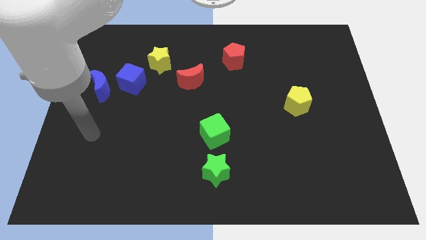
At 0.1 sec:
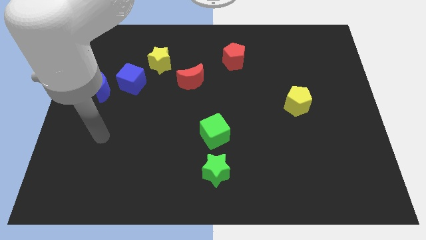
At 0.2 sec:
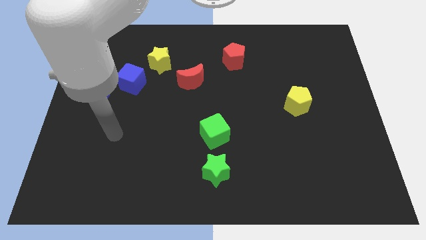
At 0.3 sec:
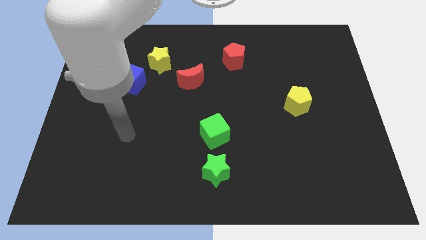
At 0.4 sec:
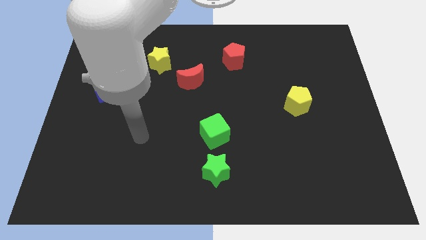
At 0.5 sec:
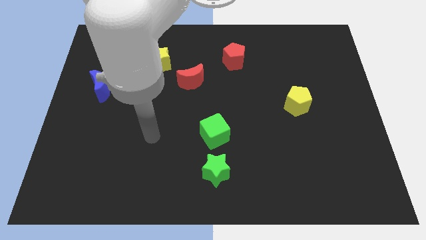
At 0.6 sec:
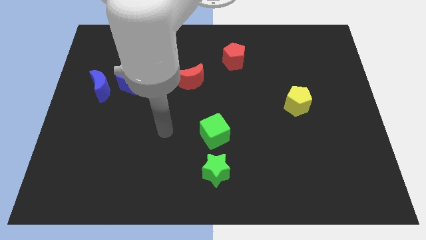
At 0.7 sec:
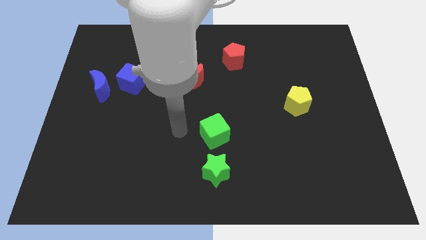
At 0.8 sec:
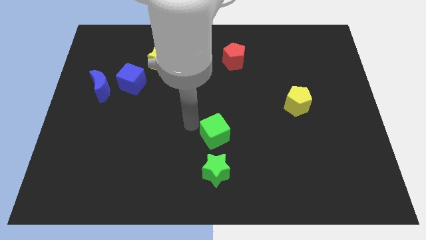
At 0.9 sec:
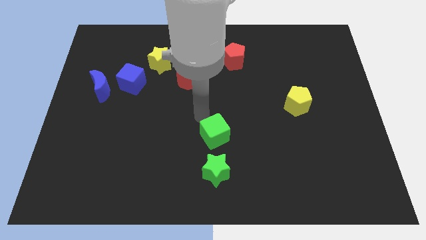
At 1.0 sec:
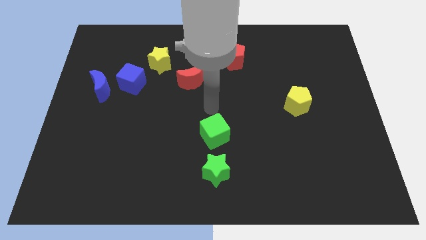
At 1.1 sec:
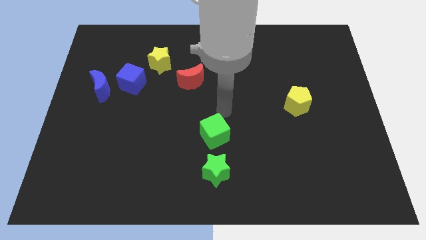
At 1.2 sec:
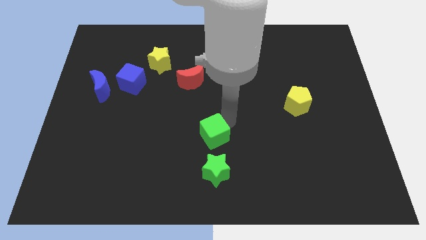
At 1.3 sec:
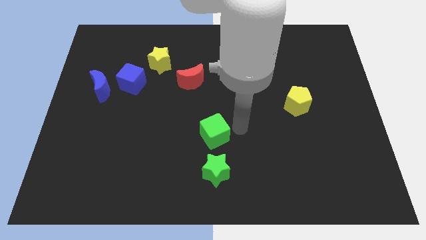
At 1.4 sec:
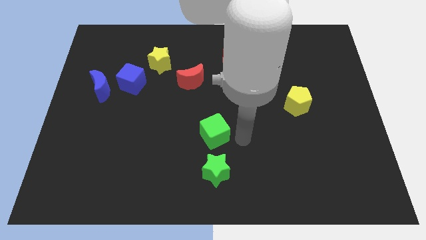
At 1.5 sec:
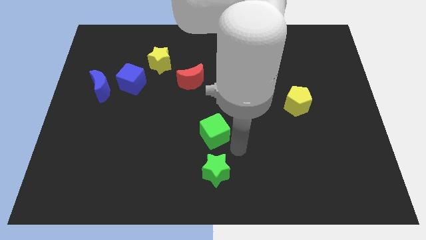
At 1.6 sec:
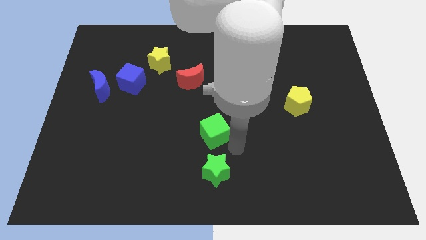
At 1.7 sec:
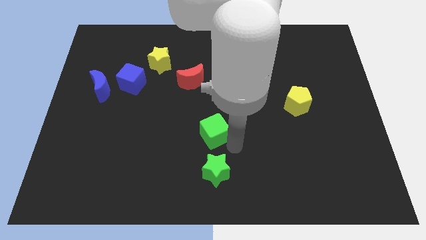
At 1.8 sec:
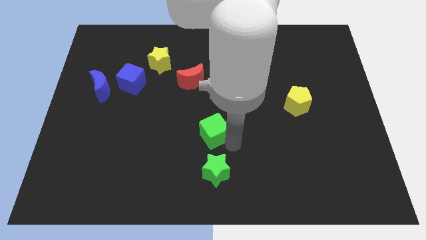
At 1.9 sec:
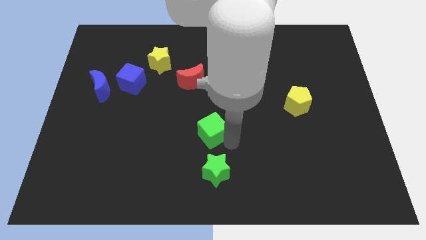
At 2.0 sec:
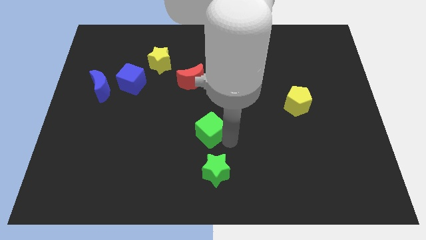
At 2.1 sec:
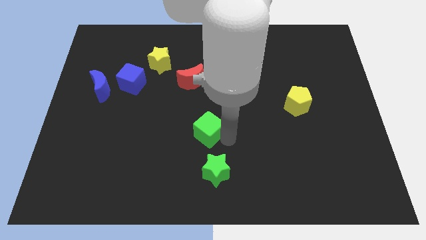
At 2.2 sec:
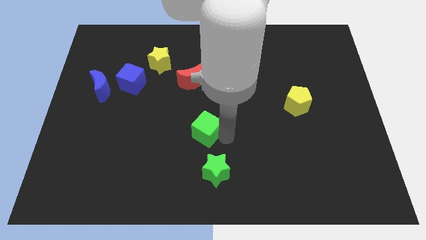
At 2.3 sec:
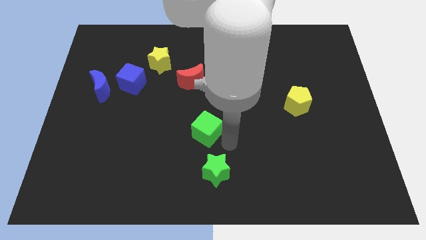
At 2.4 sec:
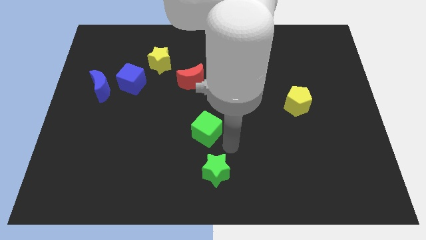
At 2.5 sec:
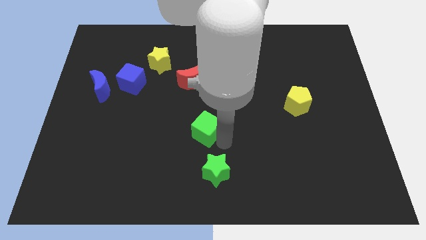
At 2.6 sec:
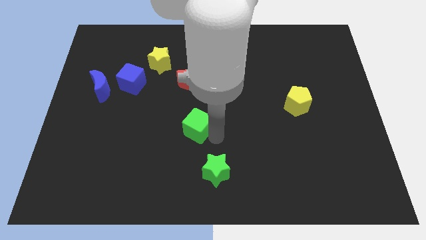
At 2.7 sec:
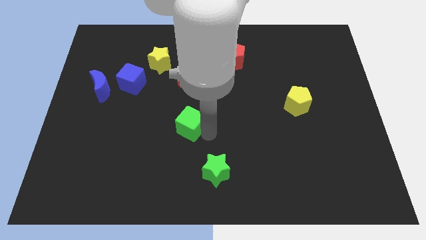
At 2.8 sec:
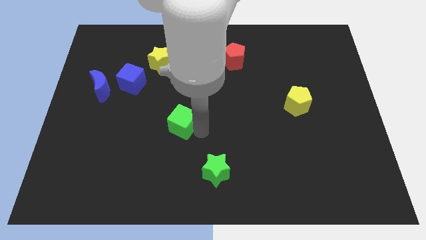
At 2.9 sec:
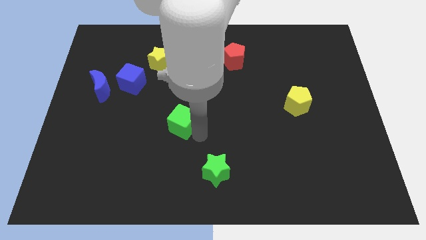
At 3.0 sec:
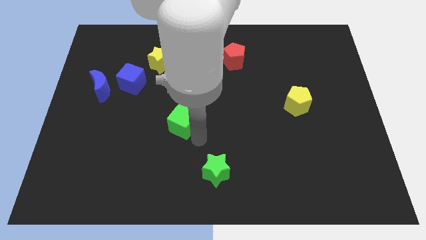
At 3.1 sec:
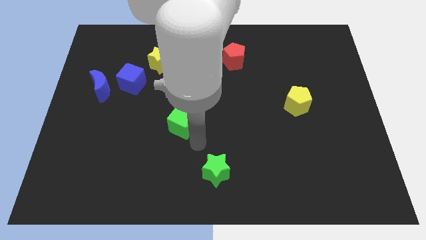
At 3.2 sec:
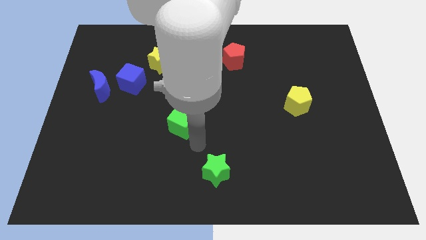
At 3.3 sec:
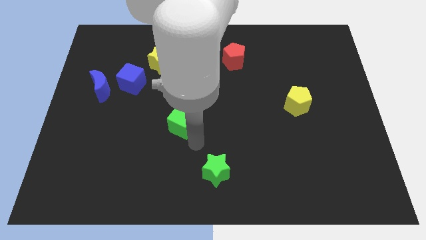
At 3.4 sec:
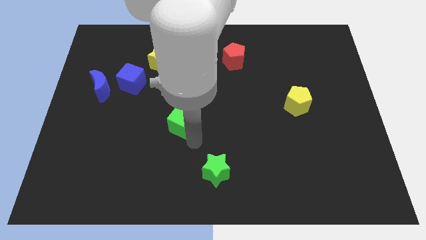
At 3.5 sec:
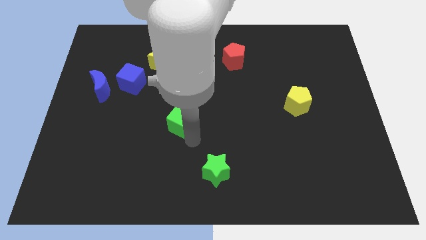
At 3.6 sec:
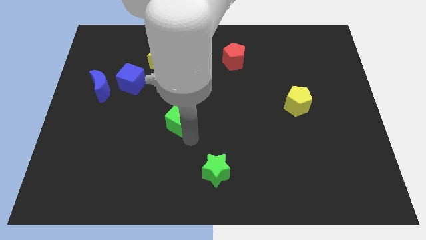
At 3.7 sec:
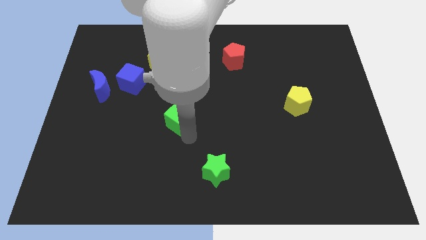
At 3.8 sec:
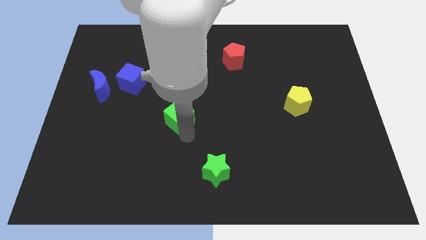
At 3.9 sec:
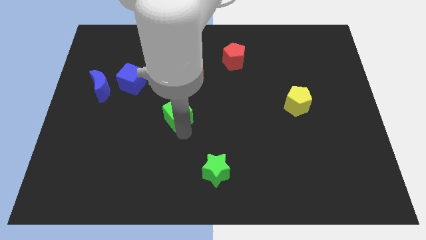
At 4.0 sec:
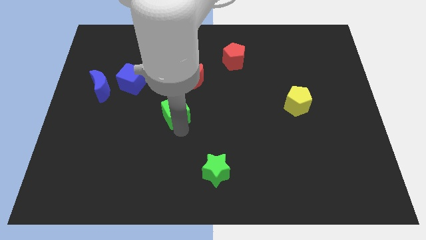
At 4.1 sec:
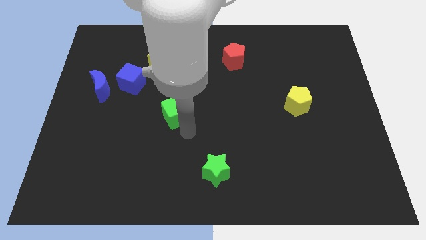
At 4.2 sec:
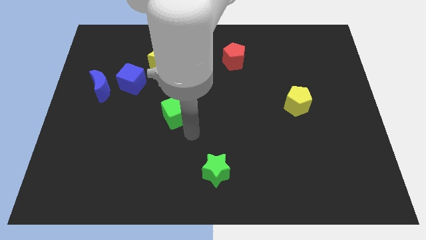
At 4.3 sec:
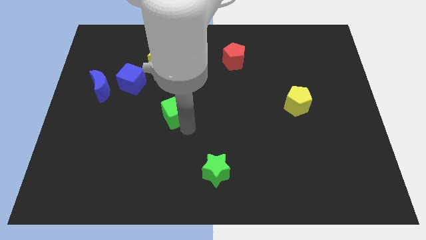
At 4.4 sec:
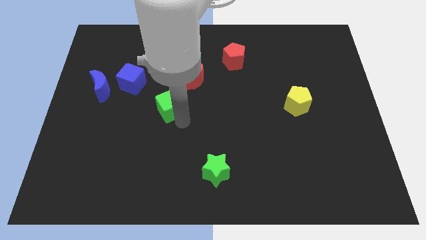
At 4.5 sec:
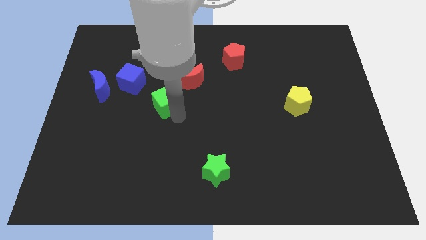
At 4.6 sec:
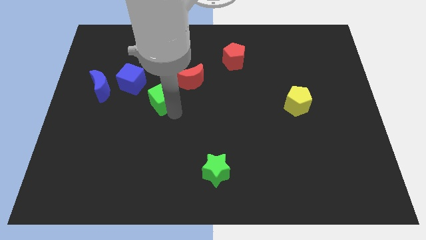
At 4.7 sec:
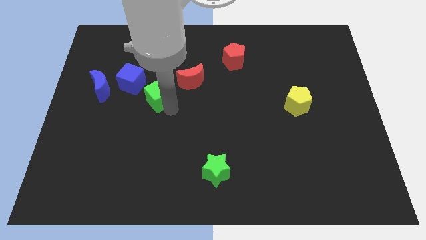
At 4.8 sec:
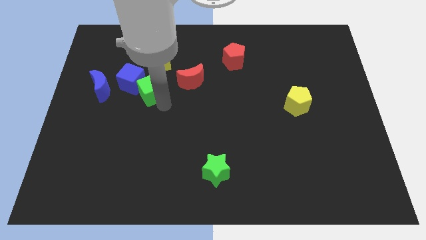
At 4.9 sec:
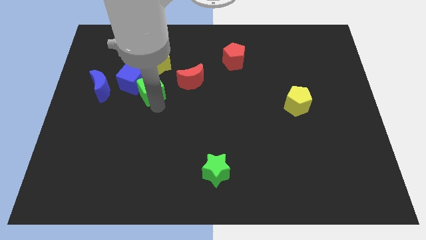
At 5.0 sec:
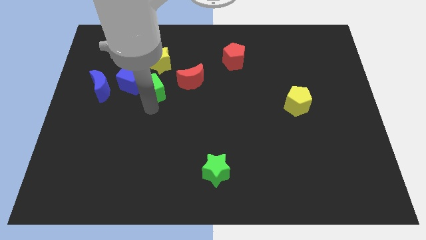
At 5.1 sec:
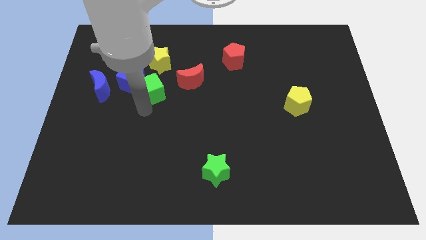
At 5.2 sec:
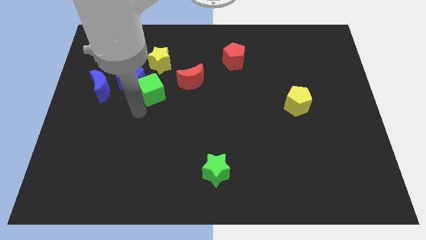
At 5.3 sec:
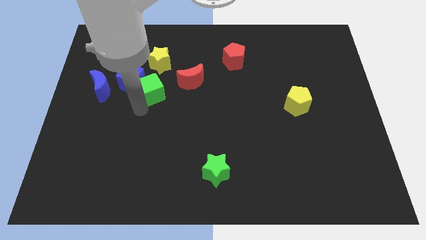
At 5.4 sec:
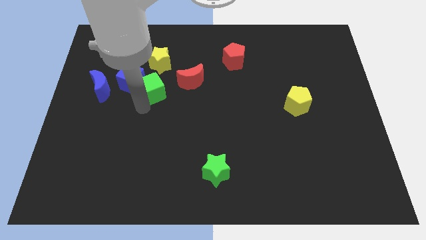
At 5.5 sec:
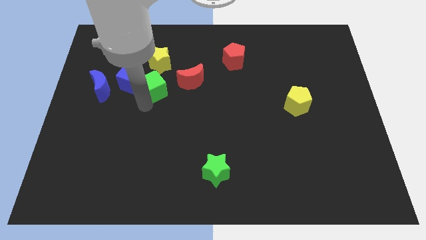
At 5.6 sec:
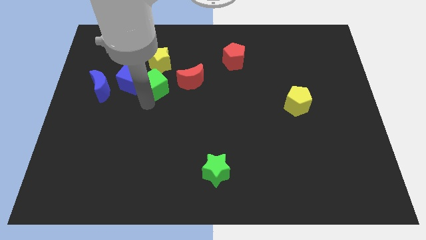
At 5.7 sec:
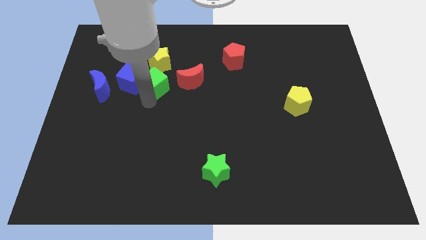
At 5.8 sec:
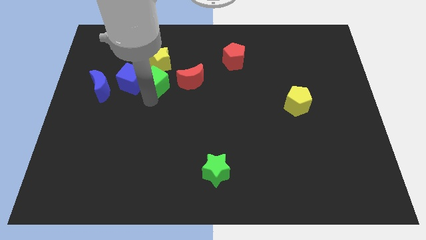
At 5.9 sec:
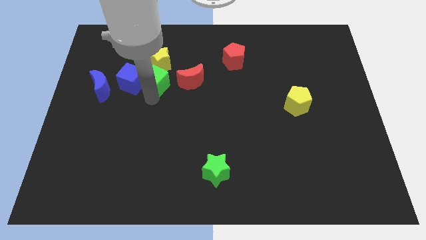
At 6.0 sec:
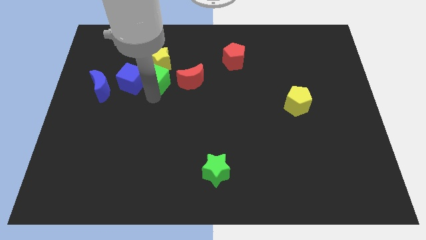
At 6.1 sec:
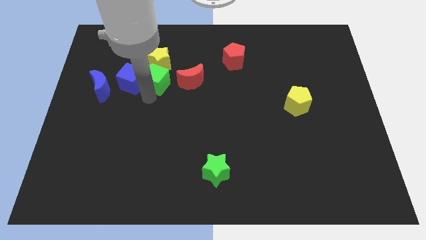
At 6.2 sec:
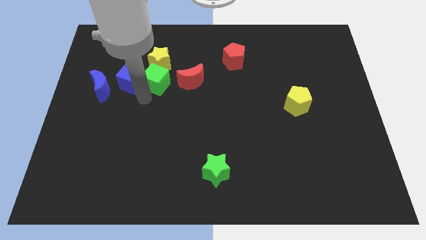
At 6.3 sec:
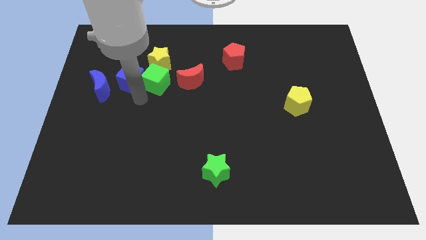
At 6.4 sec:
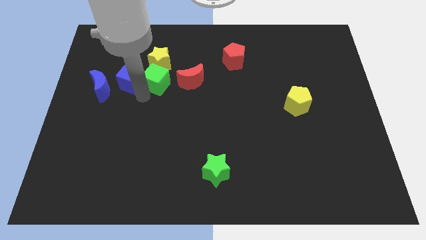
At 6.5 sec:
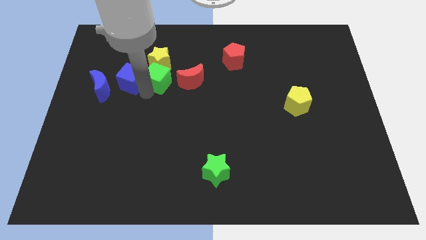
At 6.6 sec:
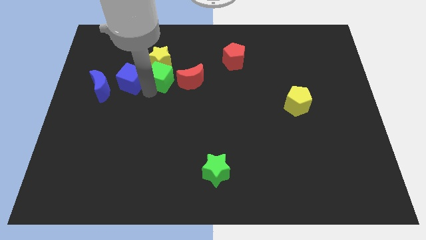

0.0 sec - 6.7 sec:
move the green cube to the yellow star

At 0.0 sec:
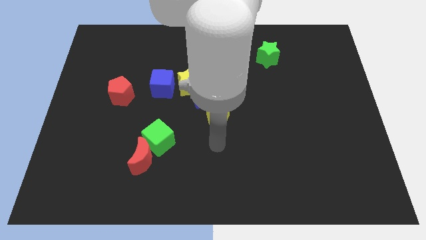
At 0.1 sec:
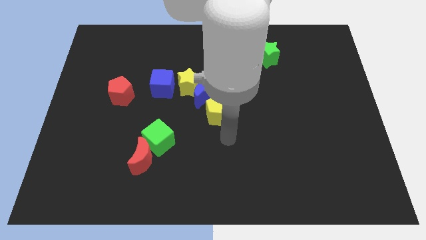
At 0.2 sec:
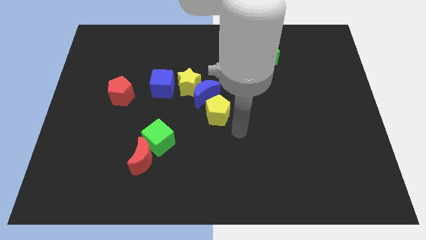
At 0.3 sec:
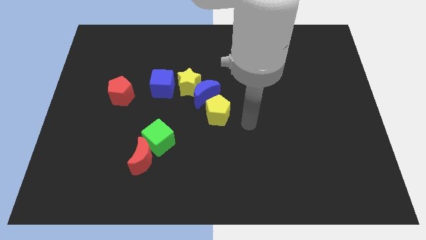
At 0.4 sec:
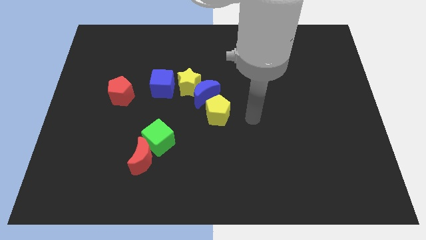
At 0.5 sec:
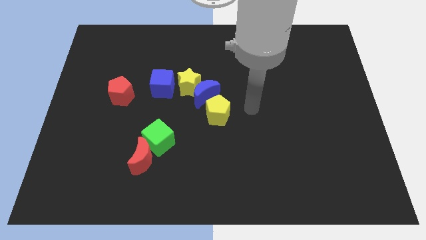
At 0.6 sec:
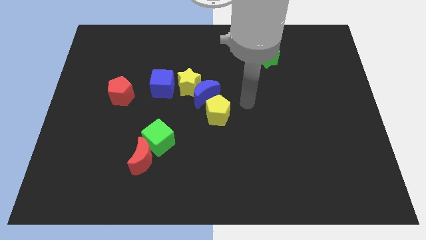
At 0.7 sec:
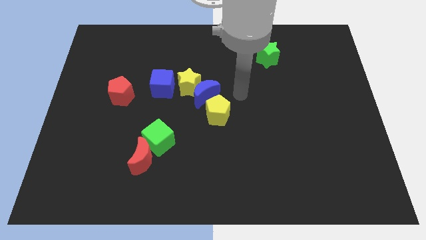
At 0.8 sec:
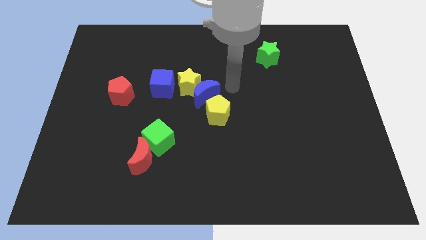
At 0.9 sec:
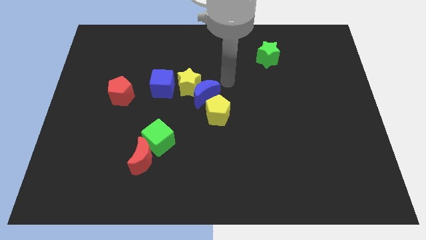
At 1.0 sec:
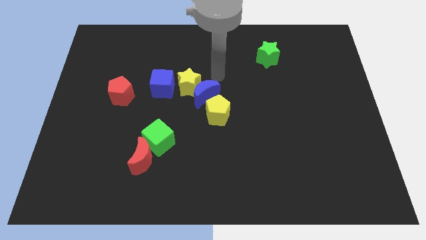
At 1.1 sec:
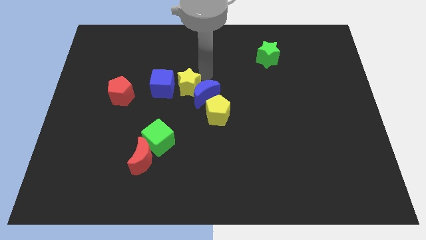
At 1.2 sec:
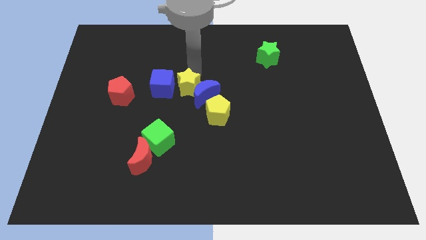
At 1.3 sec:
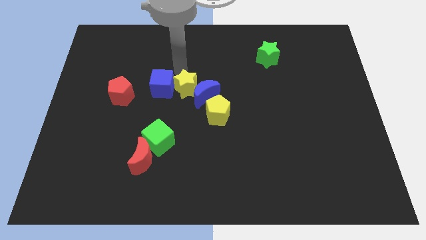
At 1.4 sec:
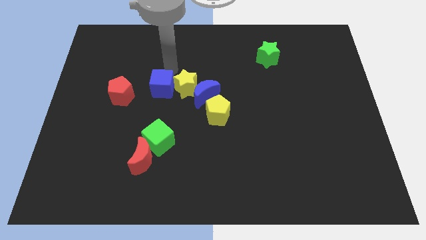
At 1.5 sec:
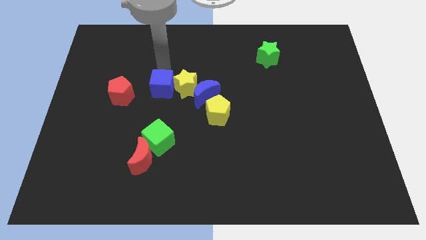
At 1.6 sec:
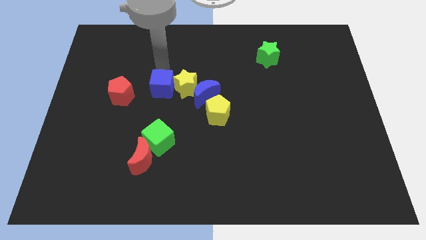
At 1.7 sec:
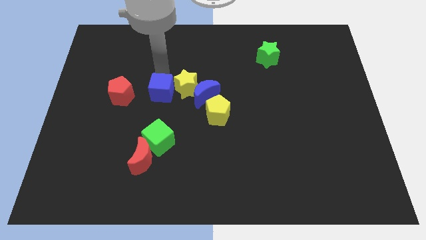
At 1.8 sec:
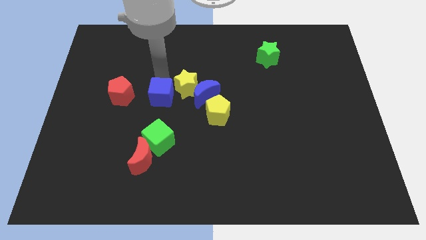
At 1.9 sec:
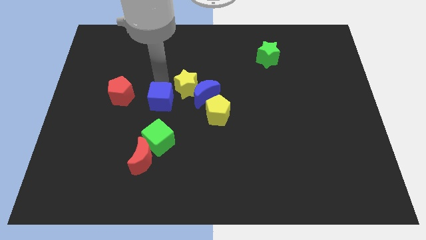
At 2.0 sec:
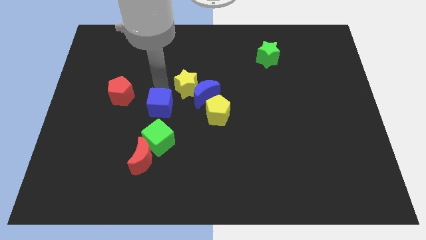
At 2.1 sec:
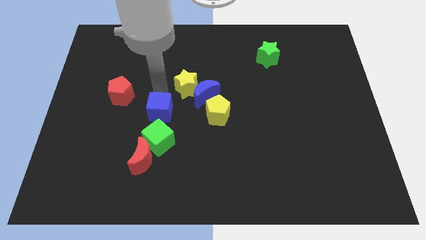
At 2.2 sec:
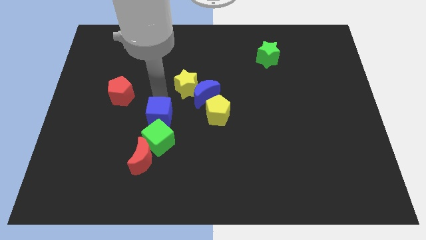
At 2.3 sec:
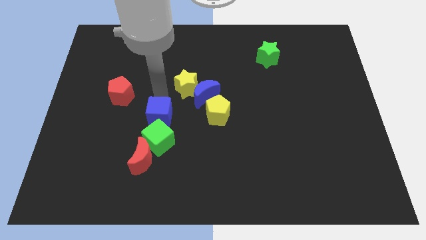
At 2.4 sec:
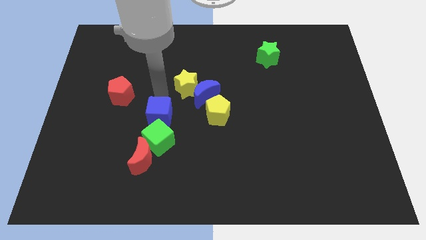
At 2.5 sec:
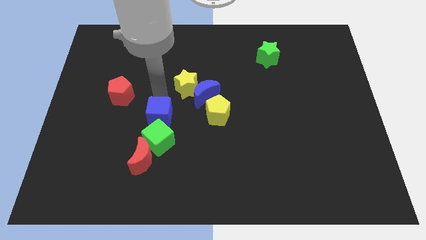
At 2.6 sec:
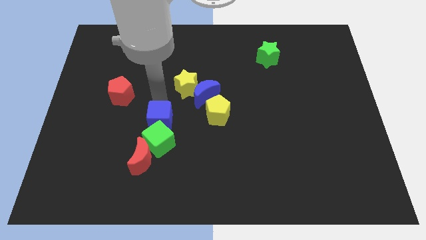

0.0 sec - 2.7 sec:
put the blue cube to the green cube
